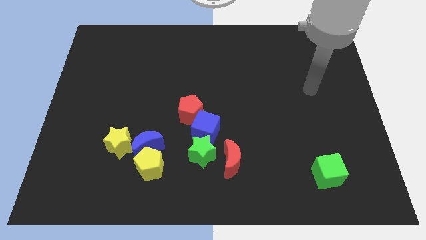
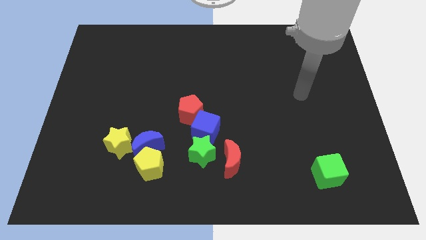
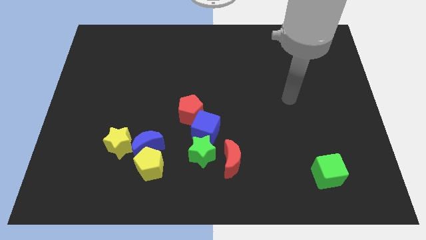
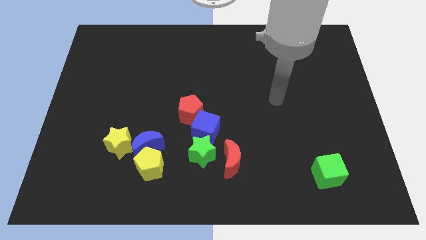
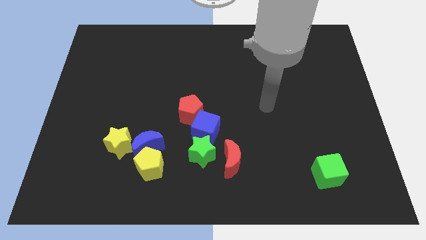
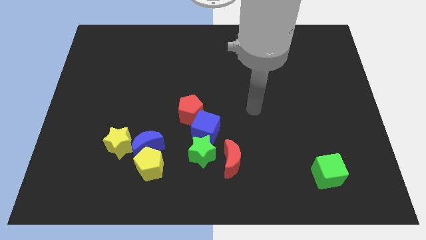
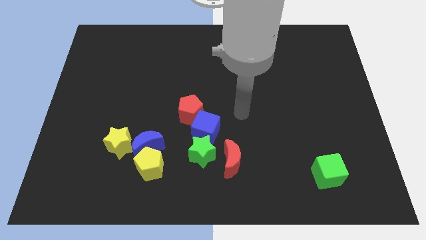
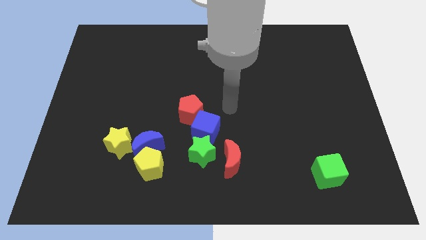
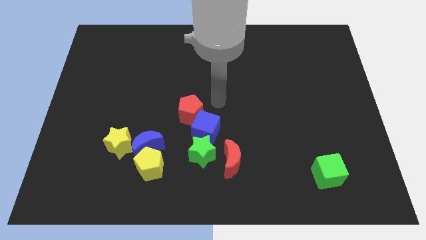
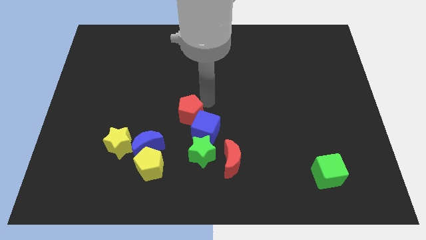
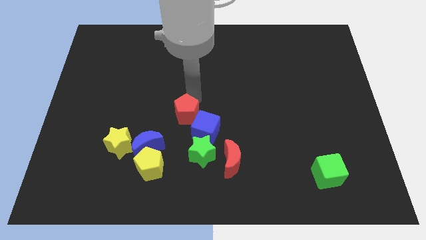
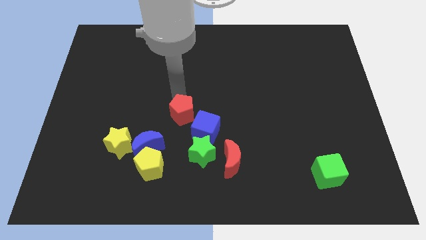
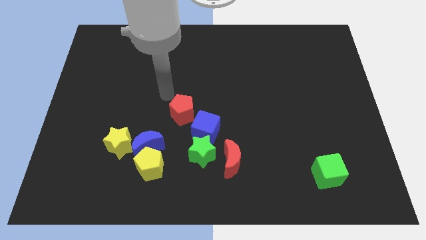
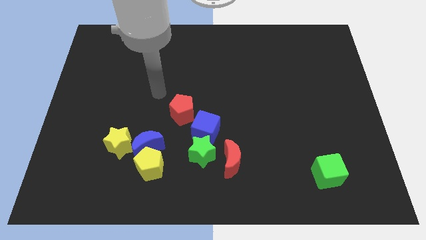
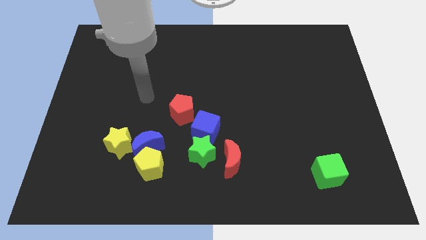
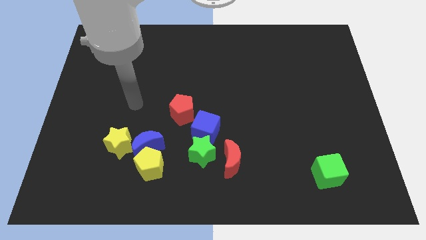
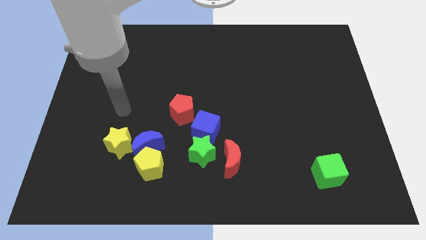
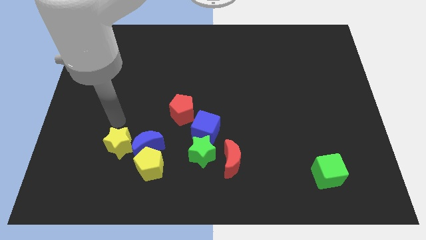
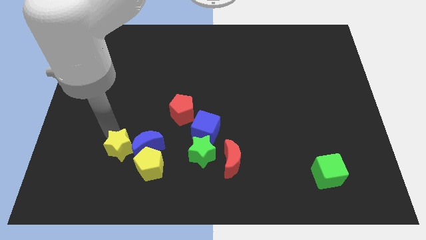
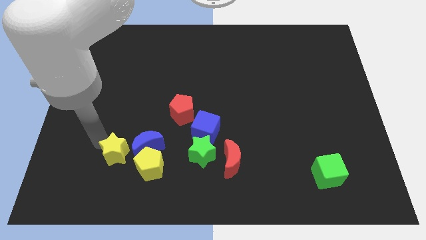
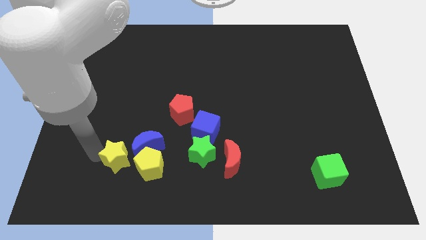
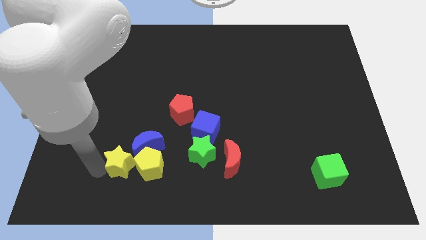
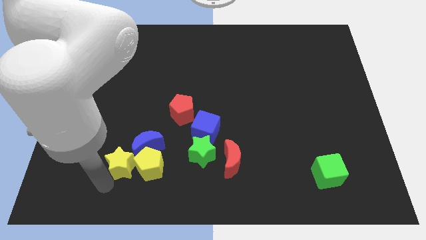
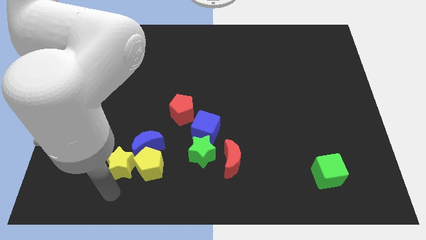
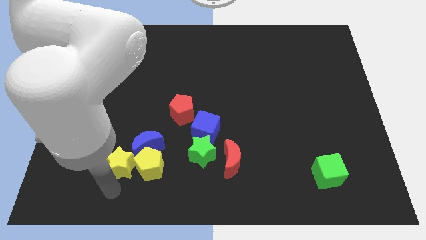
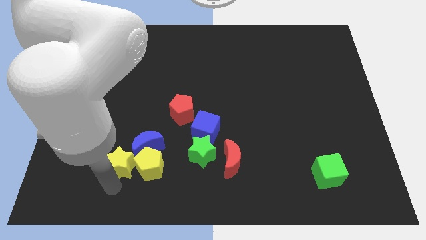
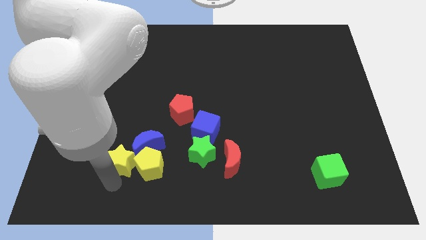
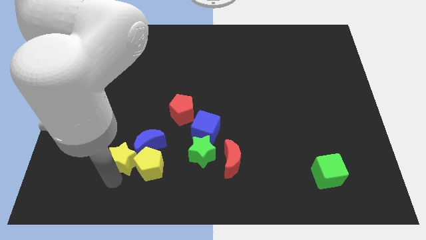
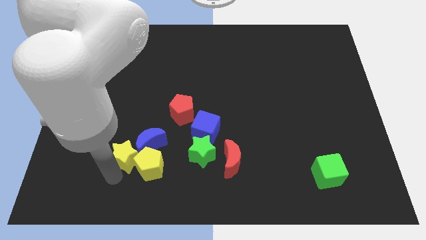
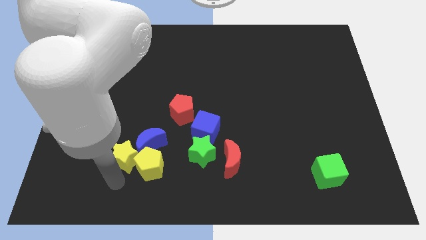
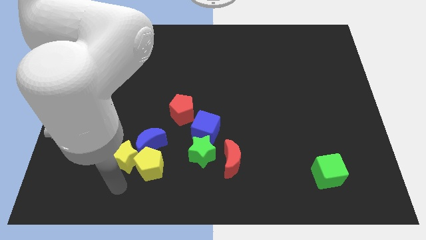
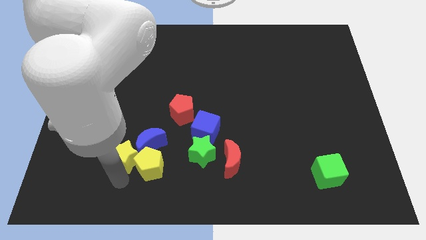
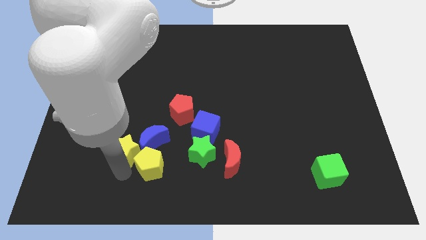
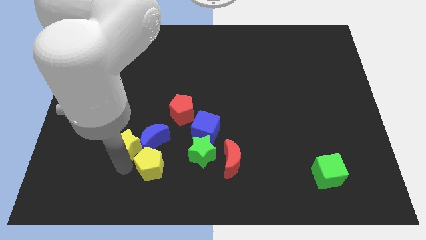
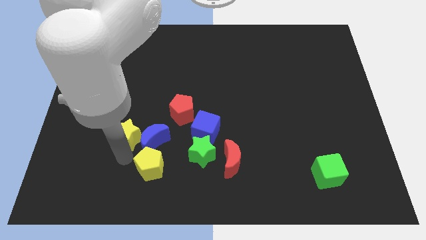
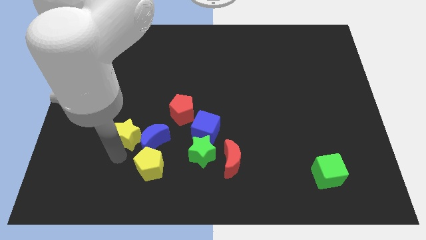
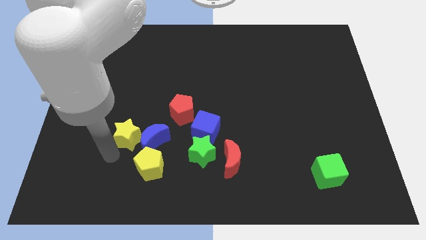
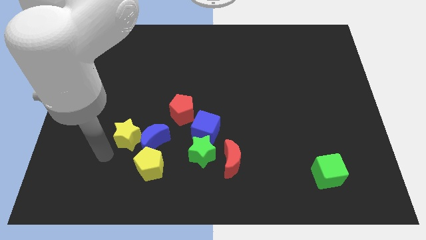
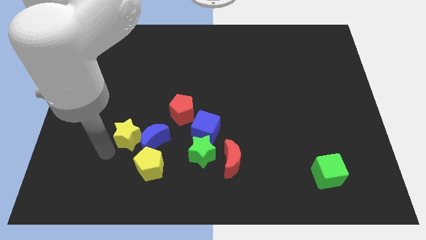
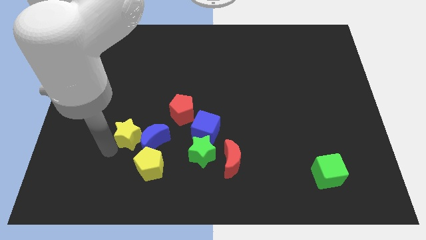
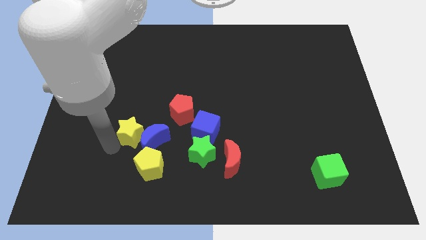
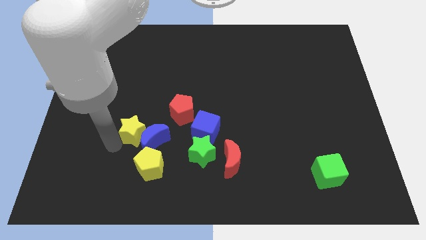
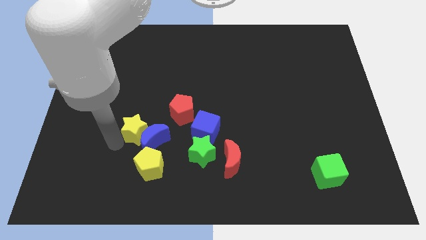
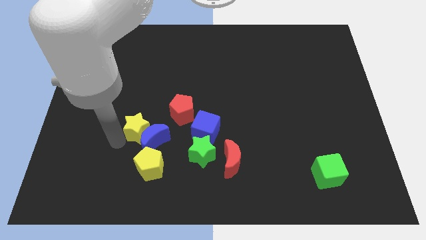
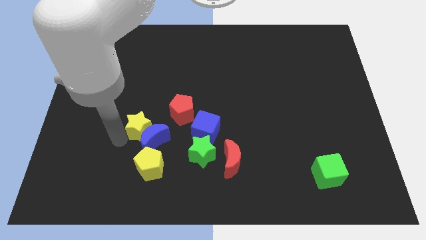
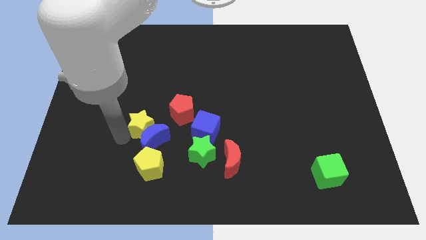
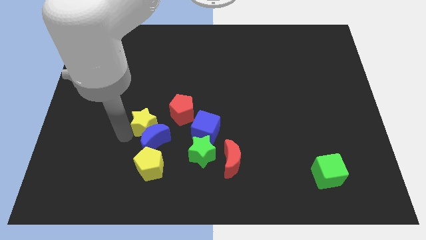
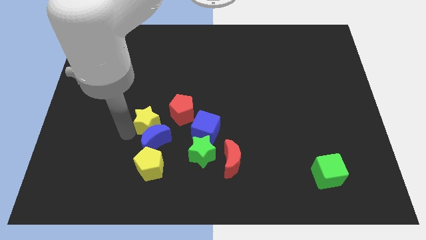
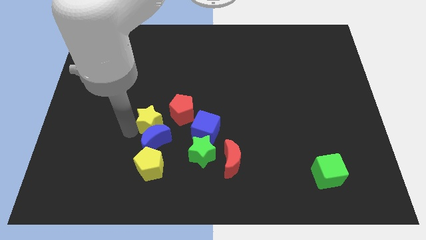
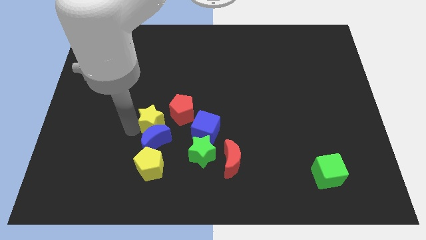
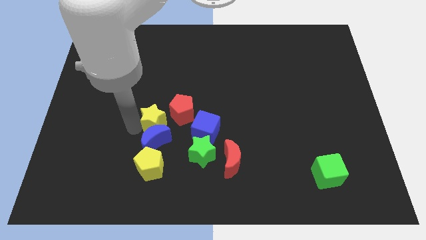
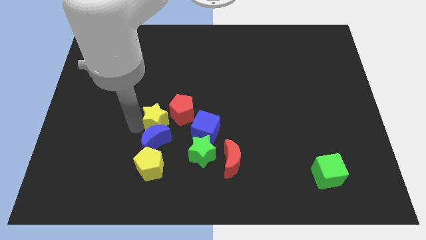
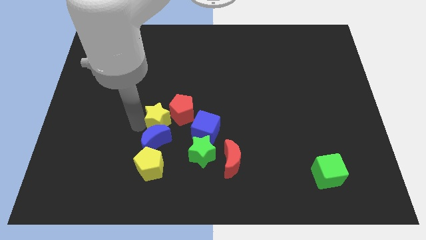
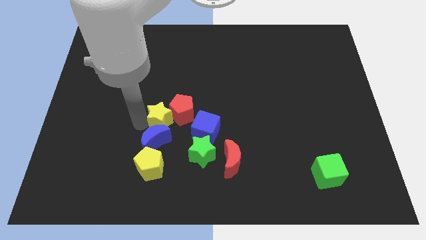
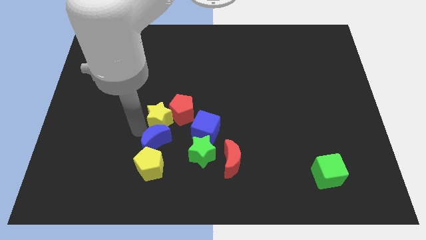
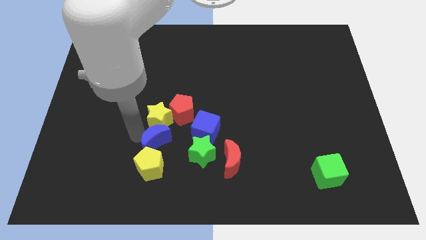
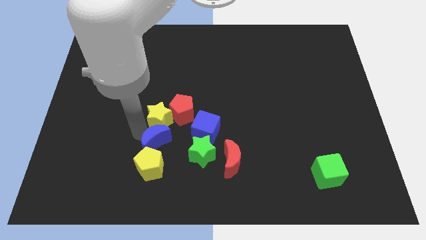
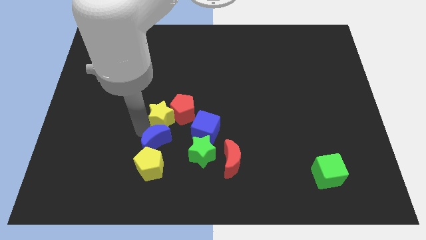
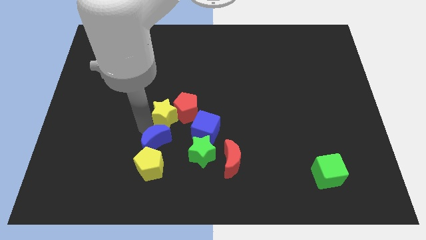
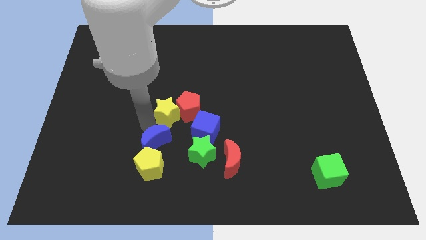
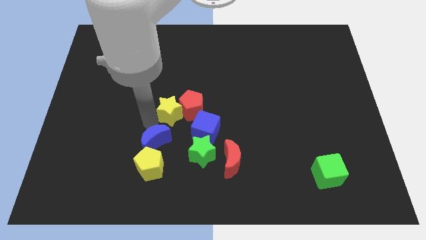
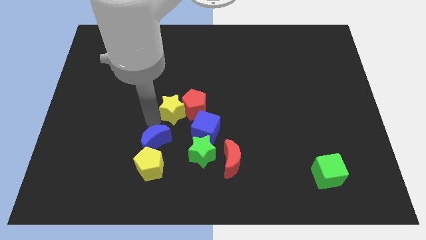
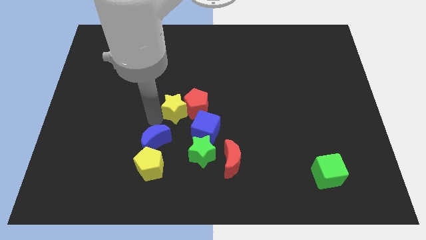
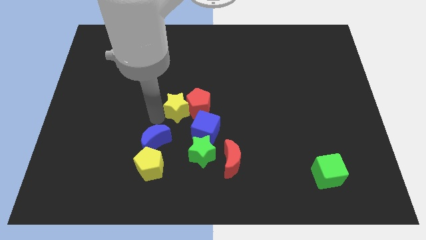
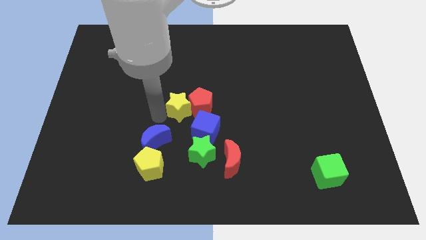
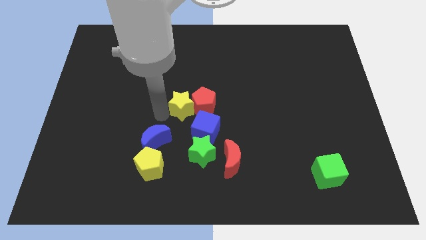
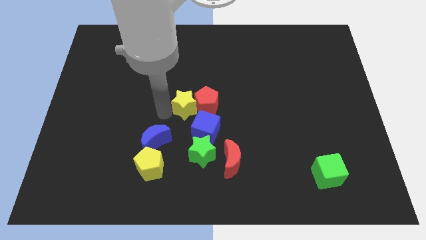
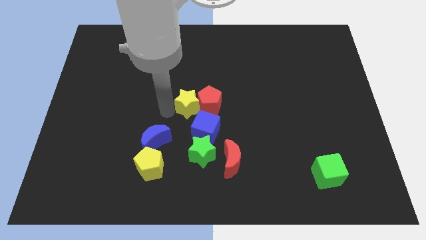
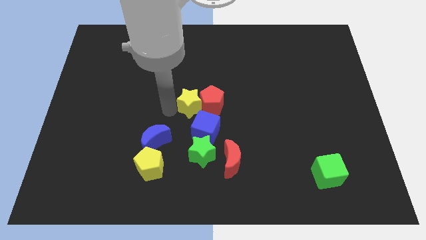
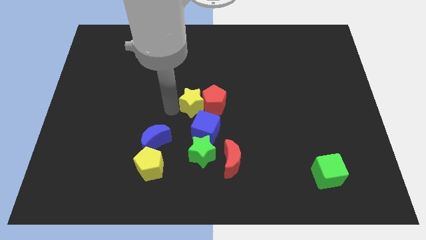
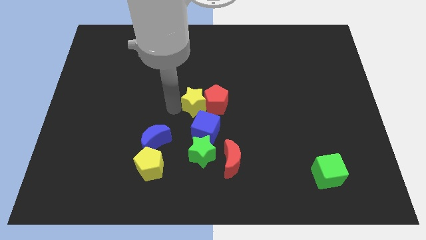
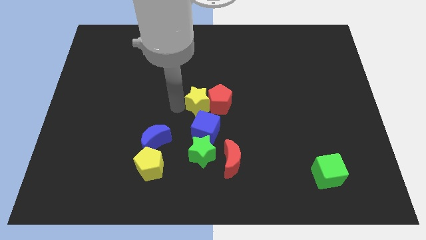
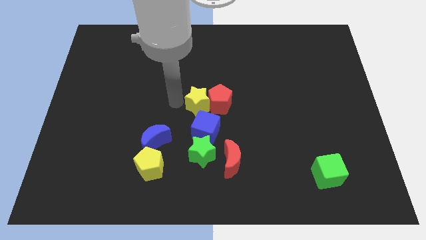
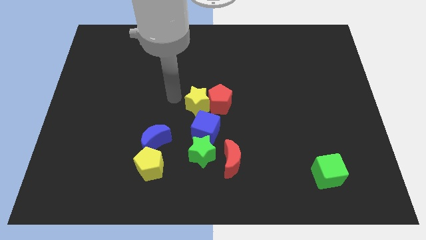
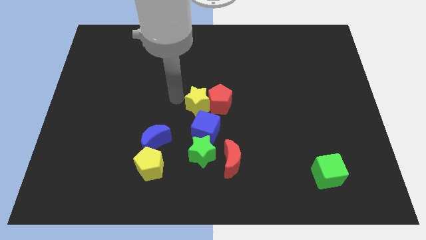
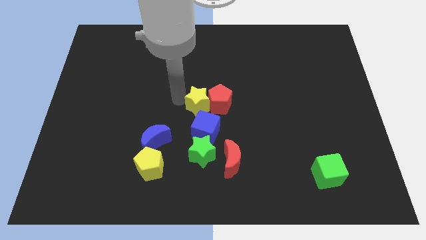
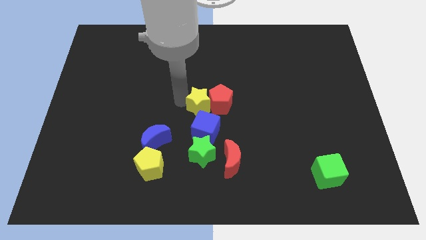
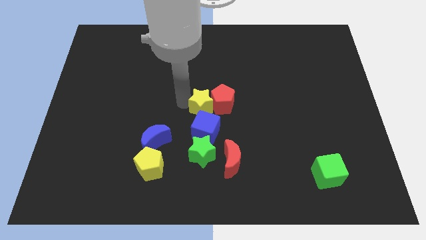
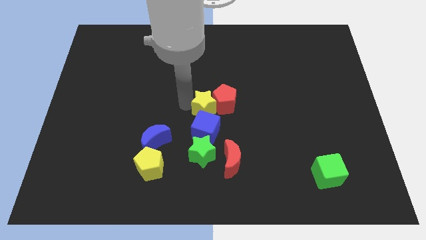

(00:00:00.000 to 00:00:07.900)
push the yellow star to the top right side of the blue cube
